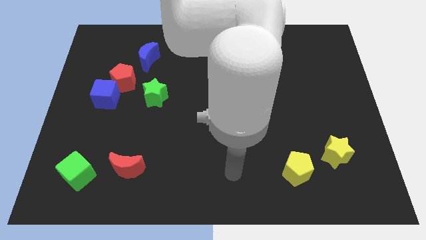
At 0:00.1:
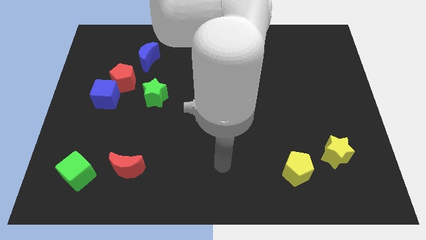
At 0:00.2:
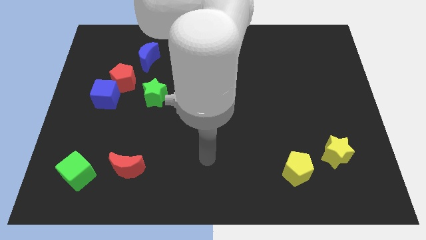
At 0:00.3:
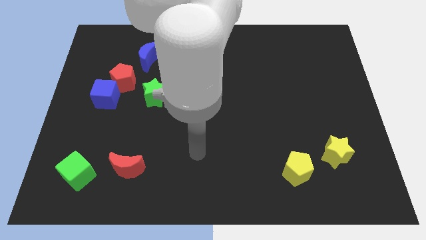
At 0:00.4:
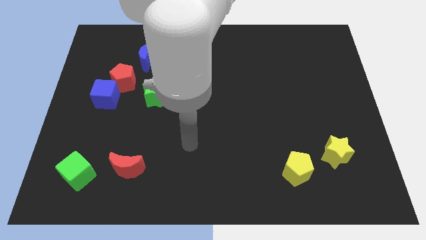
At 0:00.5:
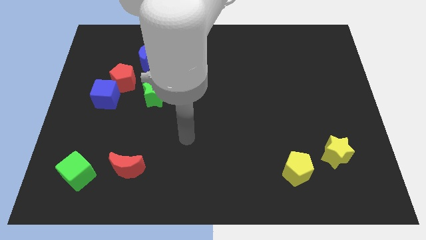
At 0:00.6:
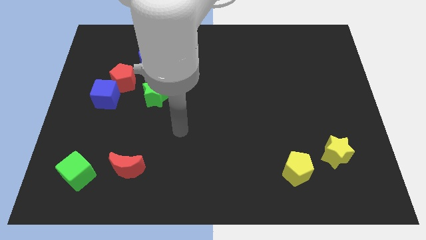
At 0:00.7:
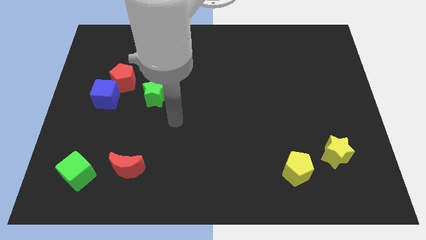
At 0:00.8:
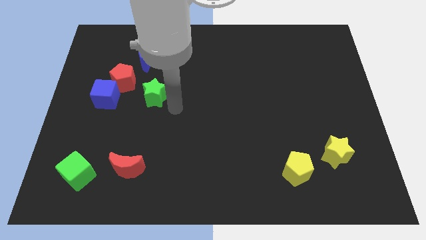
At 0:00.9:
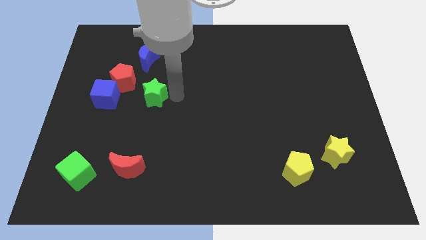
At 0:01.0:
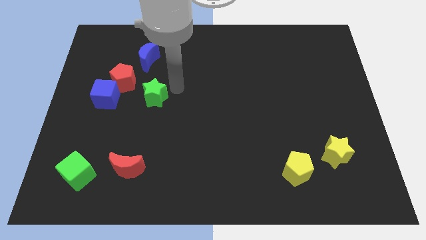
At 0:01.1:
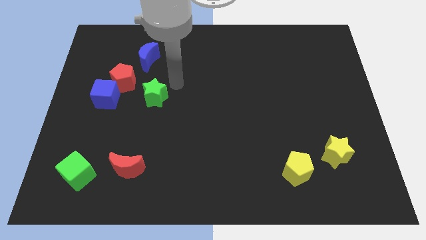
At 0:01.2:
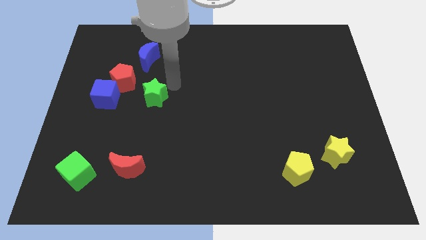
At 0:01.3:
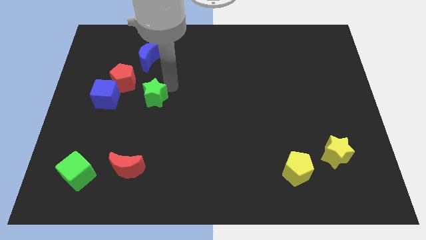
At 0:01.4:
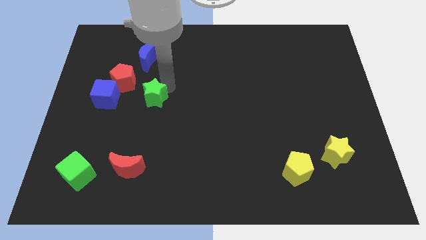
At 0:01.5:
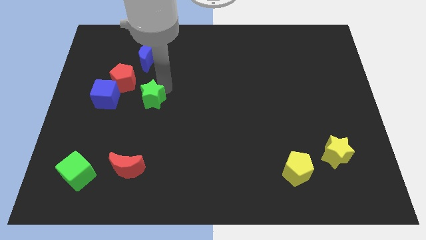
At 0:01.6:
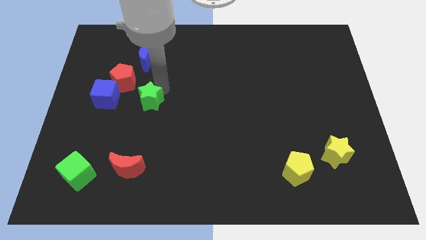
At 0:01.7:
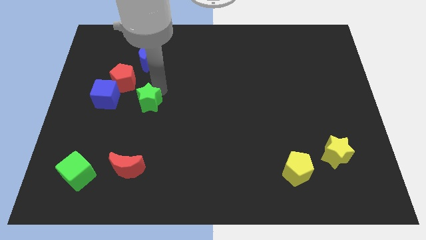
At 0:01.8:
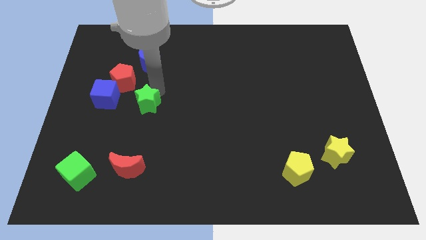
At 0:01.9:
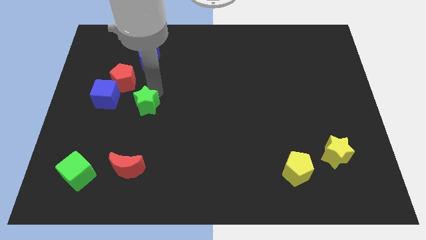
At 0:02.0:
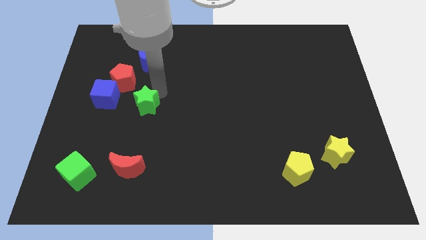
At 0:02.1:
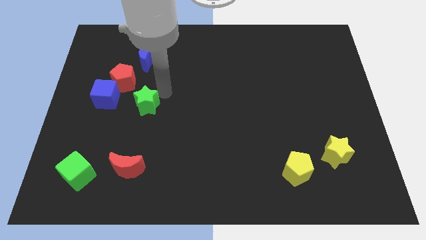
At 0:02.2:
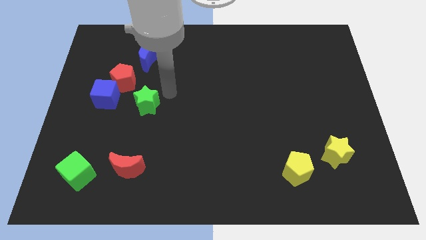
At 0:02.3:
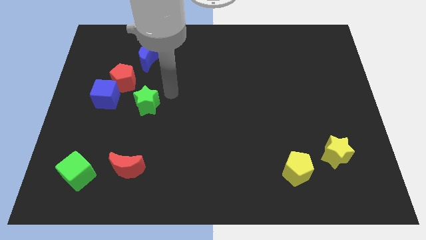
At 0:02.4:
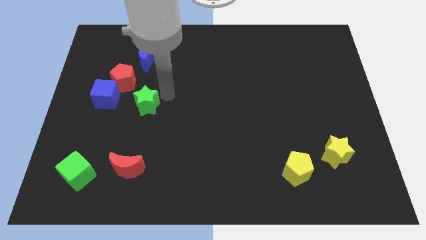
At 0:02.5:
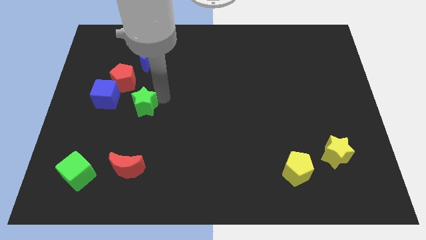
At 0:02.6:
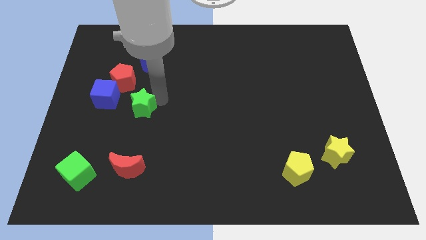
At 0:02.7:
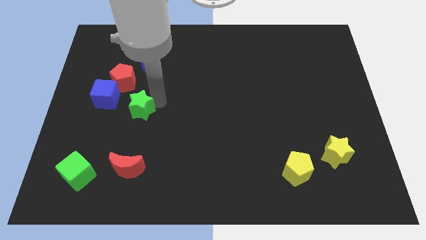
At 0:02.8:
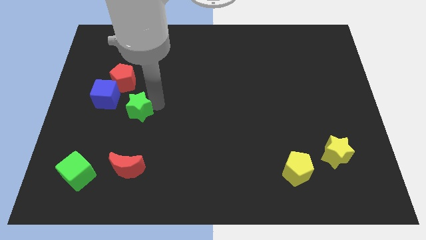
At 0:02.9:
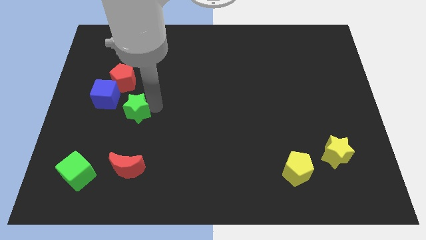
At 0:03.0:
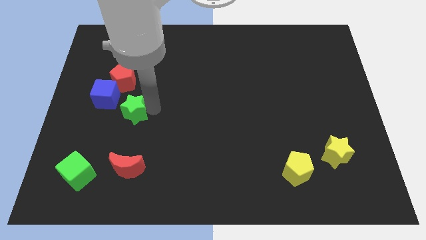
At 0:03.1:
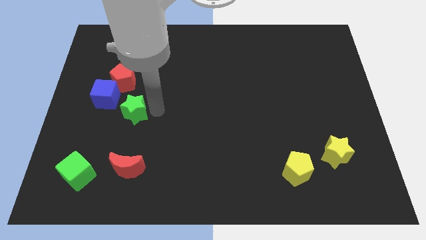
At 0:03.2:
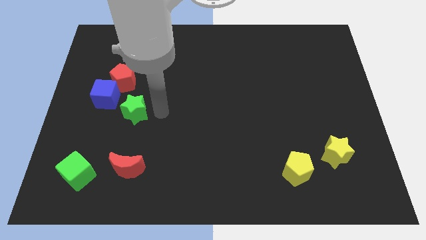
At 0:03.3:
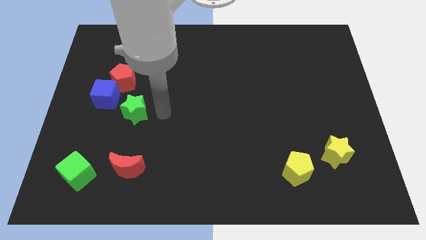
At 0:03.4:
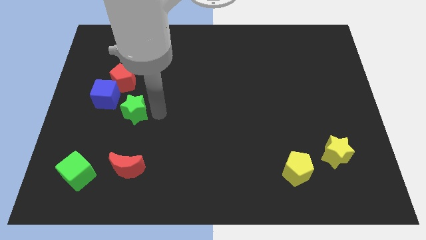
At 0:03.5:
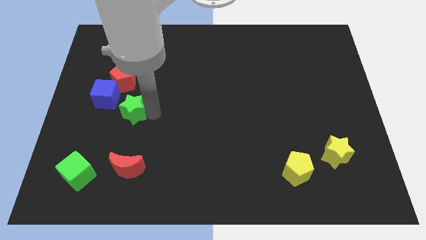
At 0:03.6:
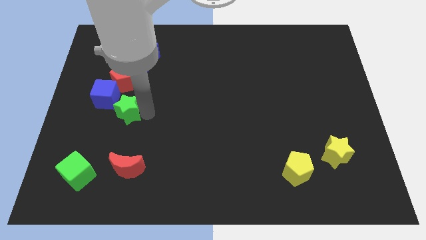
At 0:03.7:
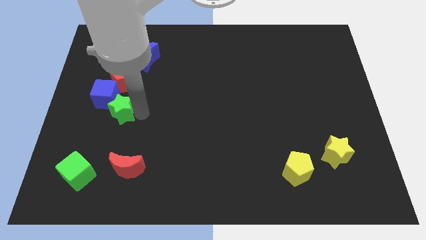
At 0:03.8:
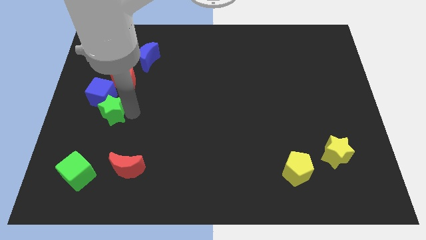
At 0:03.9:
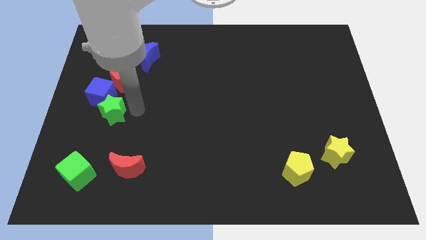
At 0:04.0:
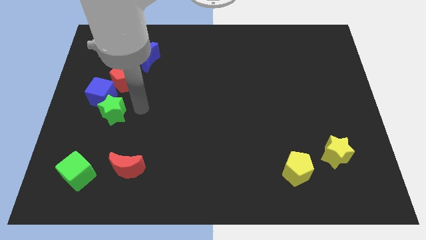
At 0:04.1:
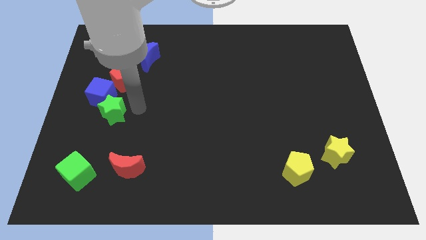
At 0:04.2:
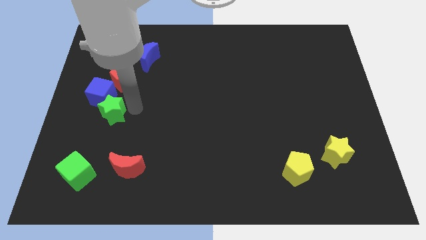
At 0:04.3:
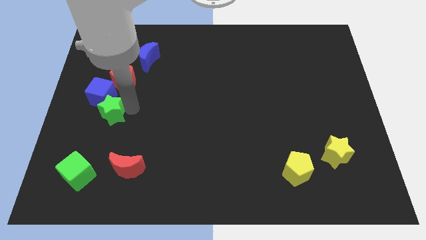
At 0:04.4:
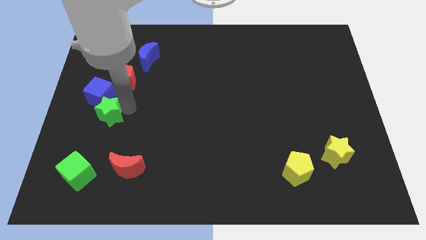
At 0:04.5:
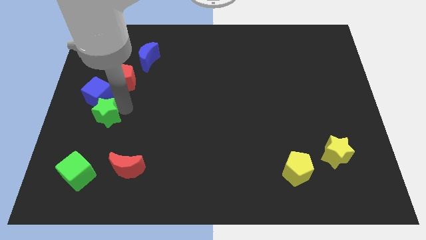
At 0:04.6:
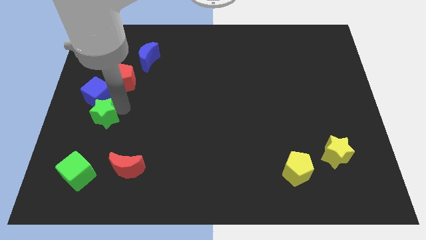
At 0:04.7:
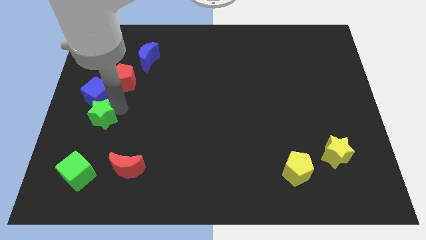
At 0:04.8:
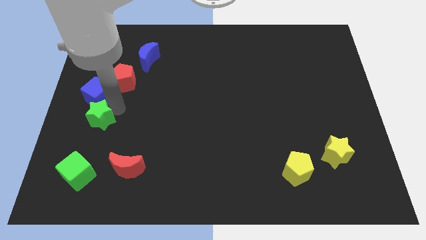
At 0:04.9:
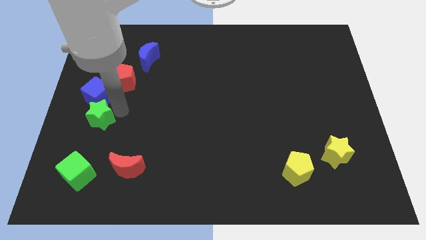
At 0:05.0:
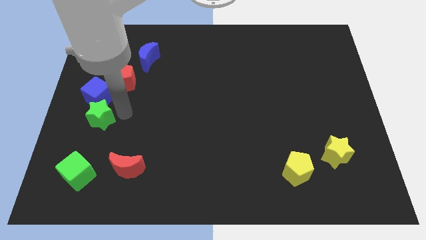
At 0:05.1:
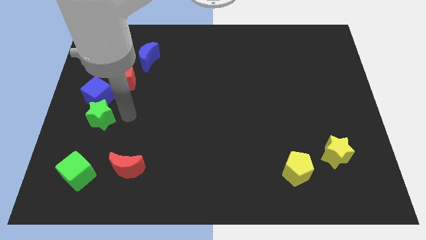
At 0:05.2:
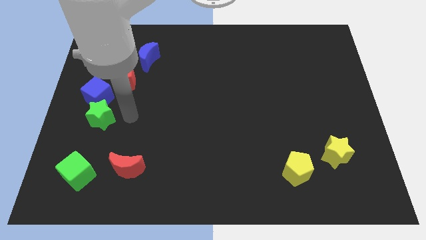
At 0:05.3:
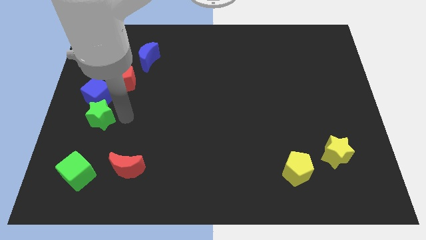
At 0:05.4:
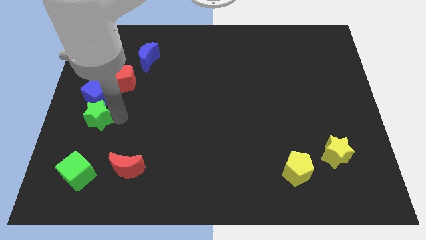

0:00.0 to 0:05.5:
slide the green star to the left side
